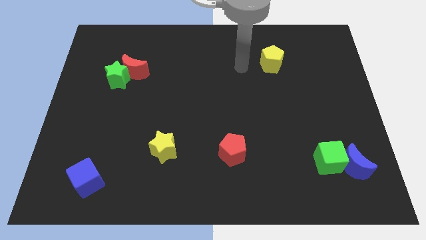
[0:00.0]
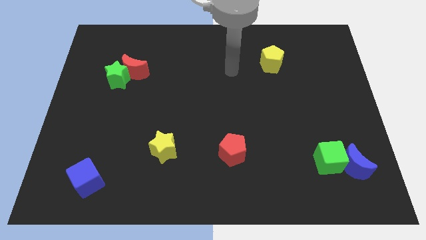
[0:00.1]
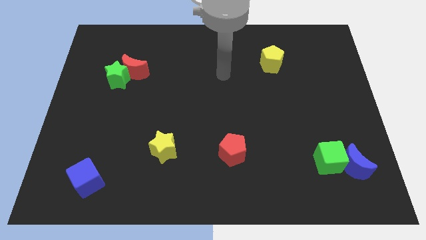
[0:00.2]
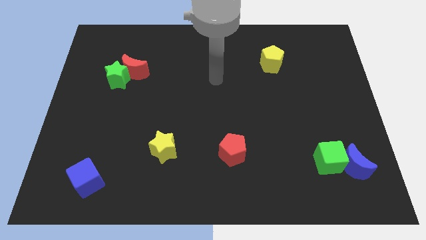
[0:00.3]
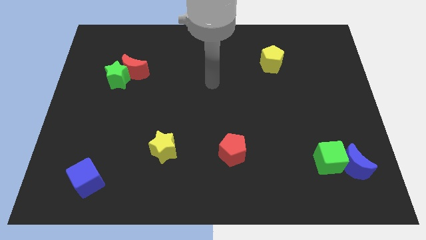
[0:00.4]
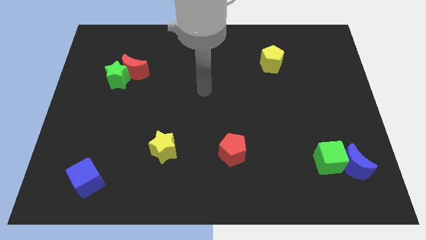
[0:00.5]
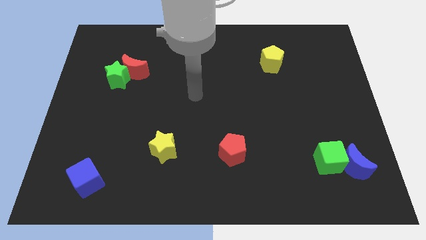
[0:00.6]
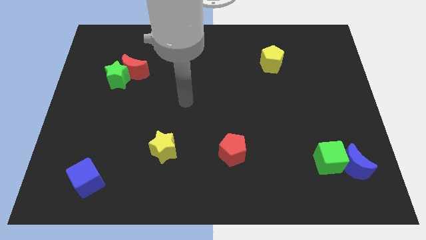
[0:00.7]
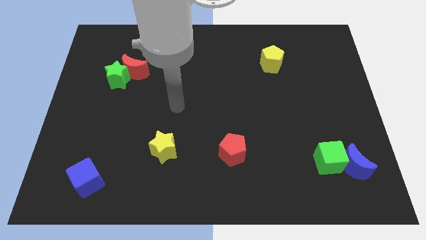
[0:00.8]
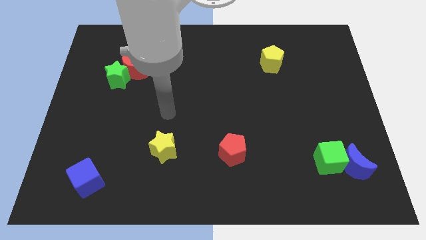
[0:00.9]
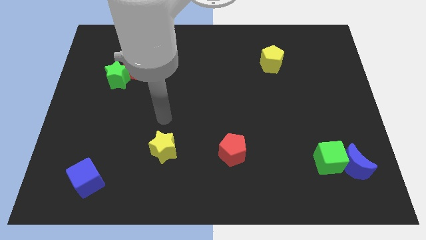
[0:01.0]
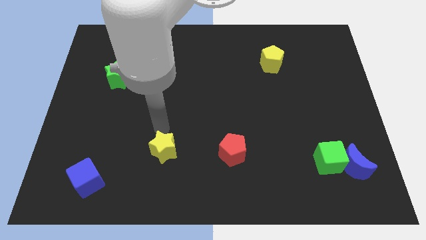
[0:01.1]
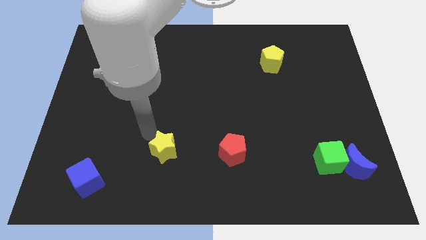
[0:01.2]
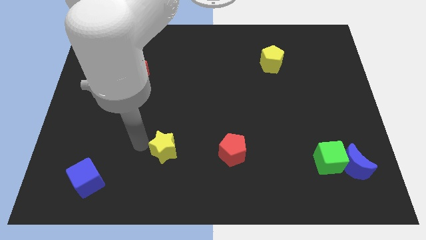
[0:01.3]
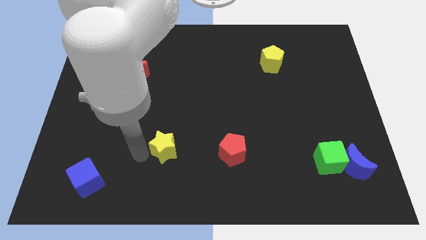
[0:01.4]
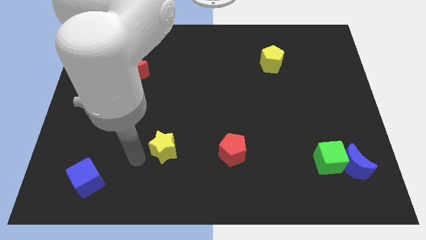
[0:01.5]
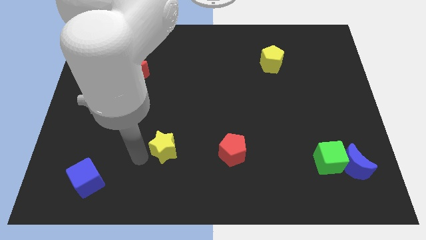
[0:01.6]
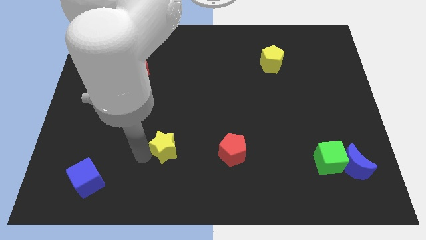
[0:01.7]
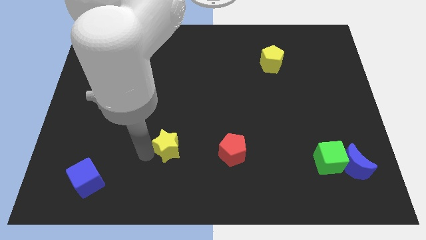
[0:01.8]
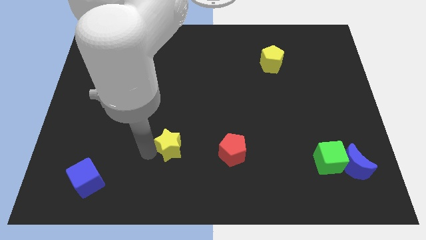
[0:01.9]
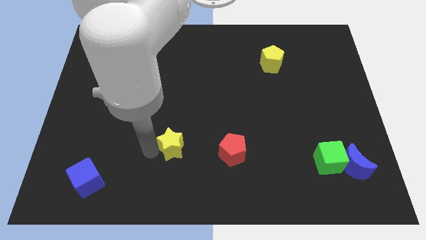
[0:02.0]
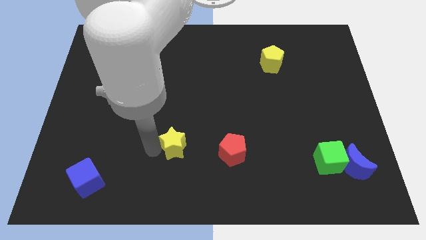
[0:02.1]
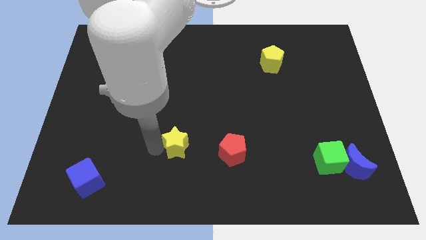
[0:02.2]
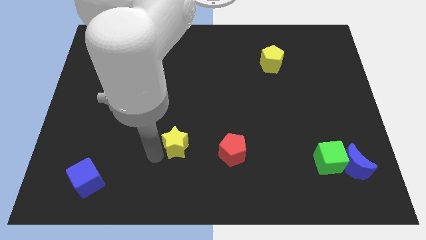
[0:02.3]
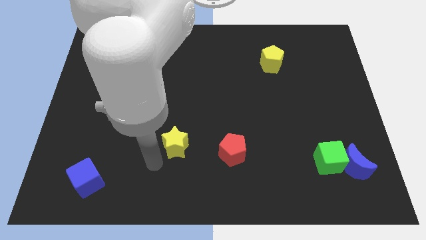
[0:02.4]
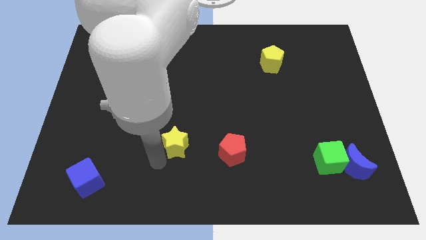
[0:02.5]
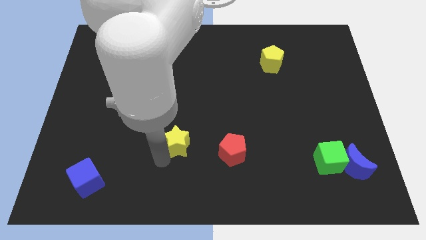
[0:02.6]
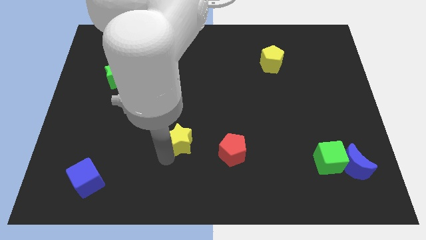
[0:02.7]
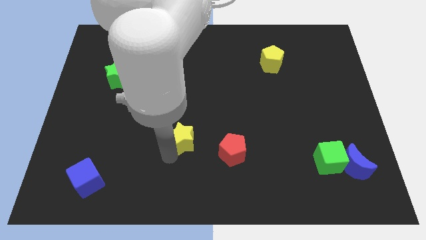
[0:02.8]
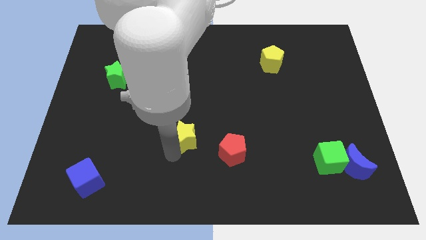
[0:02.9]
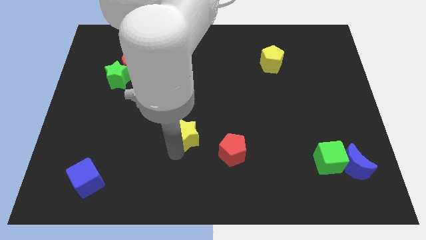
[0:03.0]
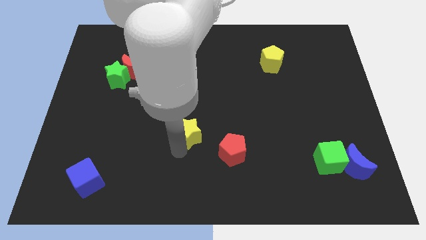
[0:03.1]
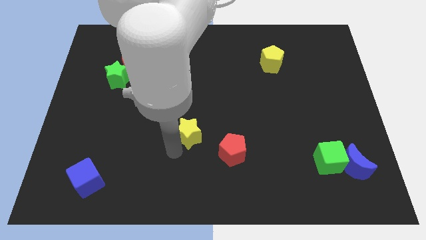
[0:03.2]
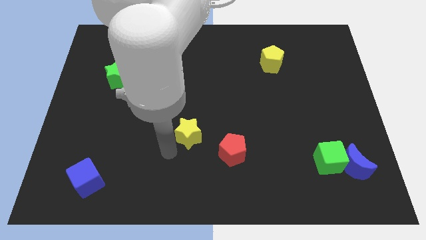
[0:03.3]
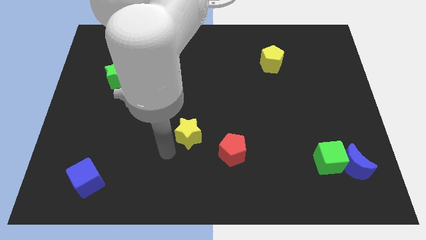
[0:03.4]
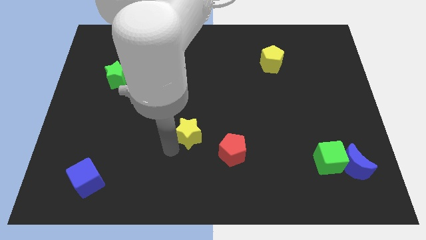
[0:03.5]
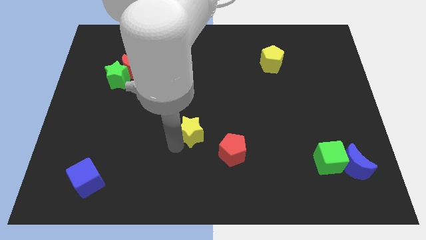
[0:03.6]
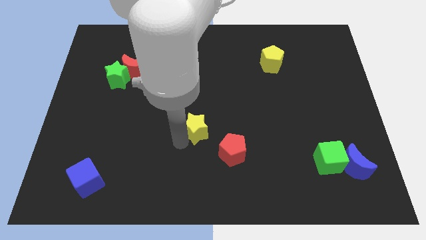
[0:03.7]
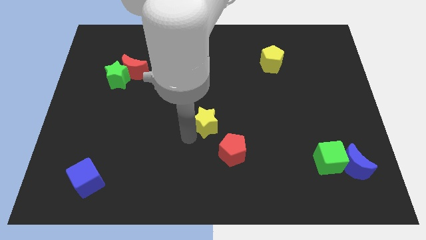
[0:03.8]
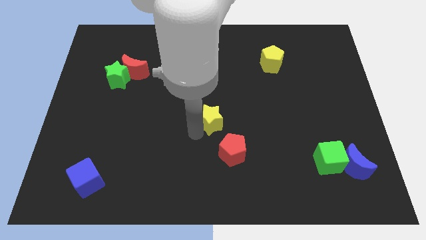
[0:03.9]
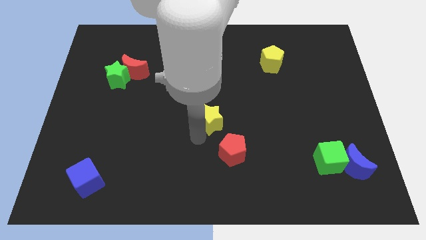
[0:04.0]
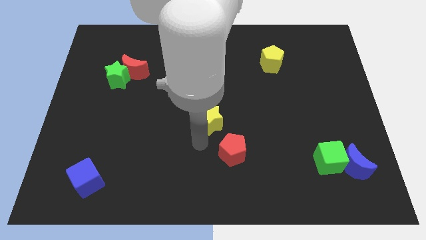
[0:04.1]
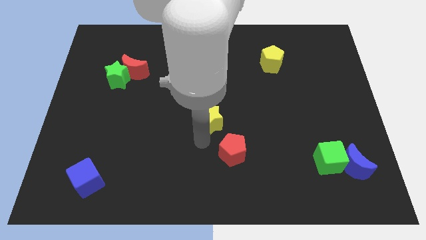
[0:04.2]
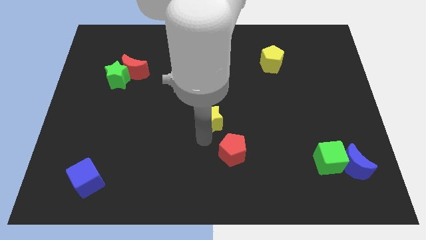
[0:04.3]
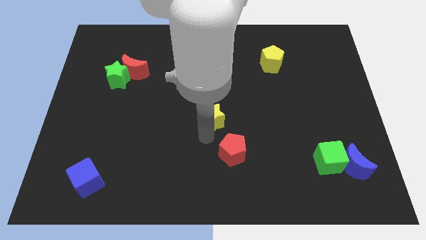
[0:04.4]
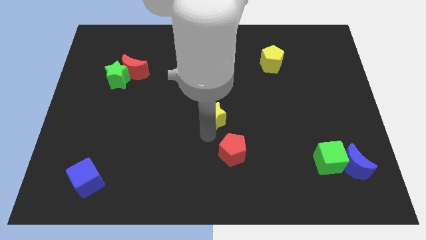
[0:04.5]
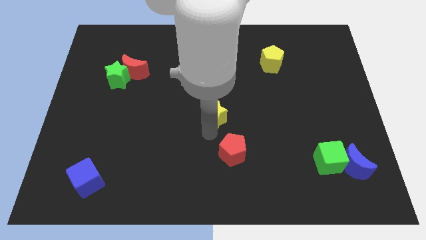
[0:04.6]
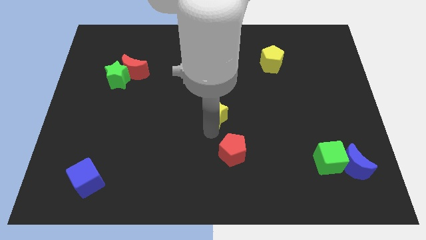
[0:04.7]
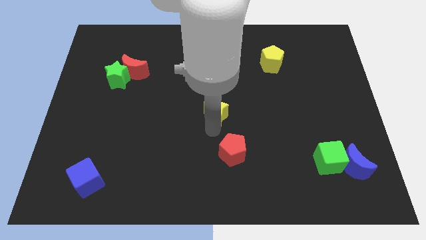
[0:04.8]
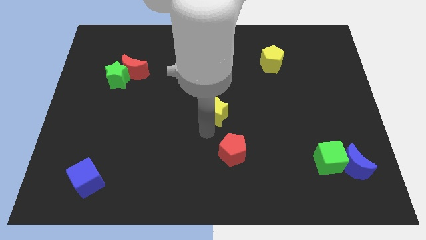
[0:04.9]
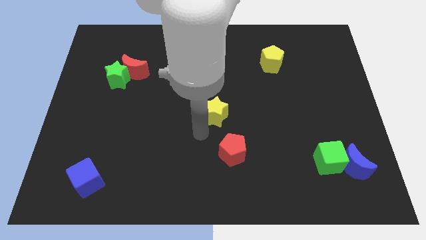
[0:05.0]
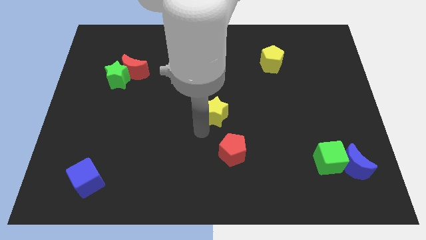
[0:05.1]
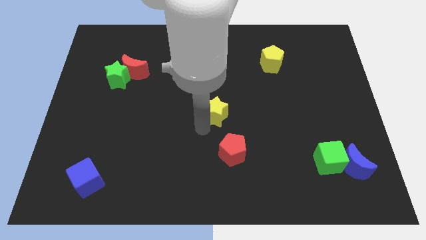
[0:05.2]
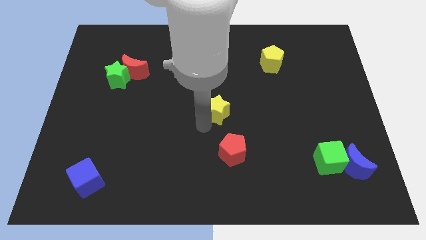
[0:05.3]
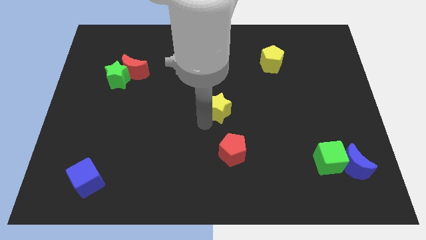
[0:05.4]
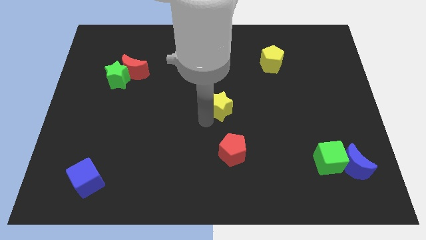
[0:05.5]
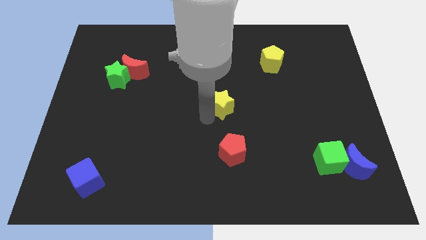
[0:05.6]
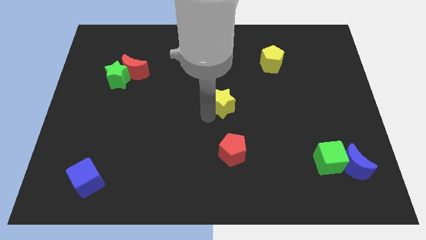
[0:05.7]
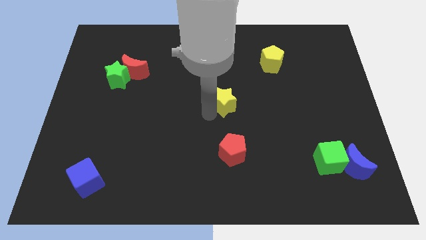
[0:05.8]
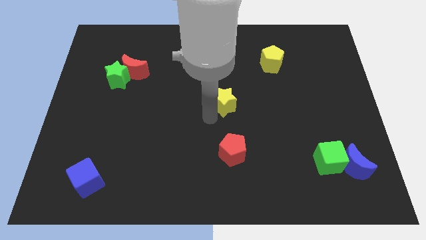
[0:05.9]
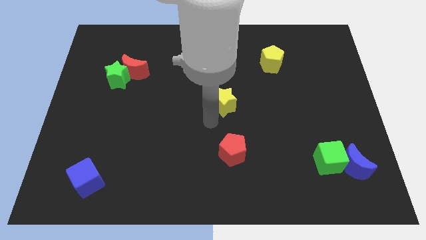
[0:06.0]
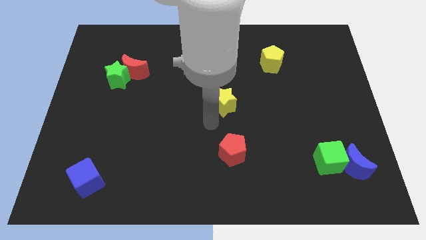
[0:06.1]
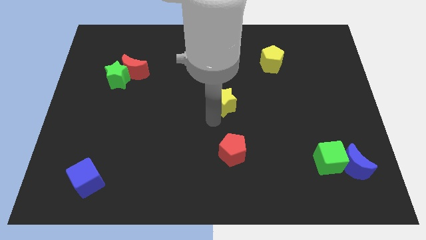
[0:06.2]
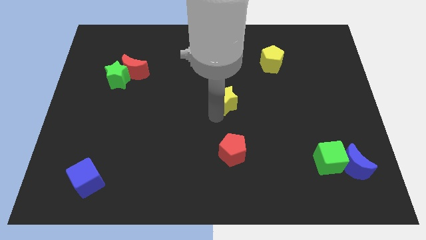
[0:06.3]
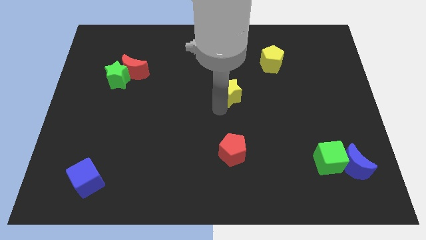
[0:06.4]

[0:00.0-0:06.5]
slide the yellow star upwards and to the right diagonally

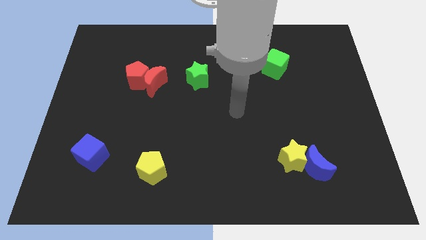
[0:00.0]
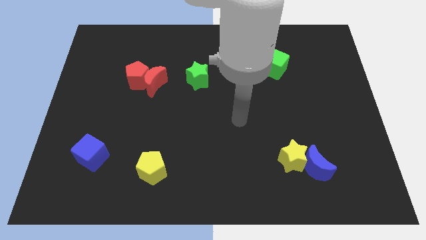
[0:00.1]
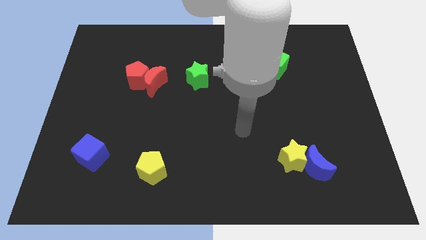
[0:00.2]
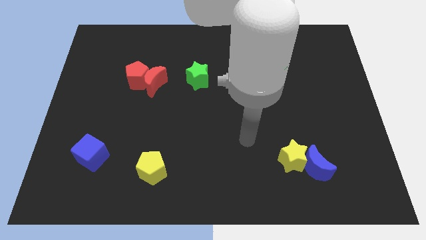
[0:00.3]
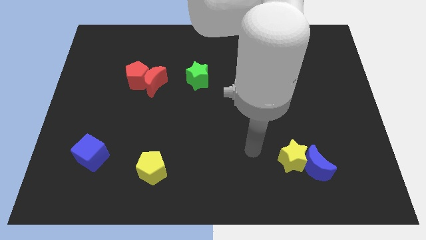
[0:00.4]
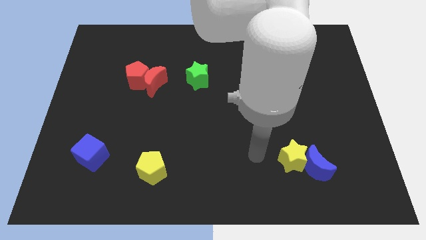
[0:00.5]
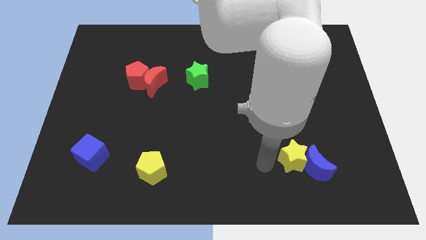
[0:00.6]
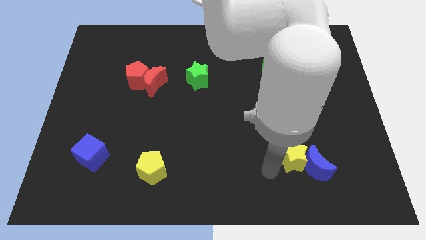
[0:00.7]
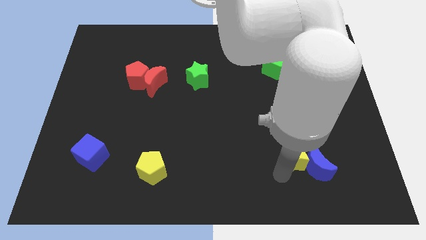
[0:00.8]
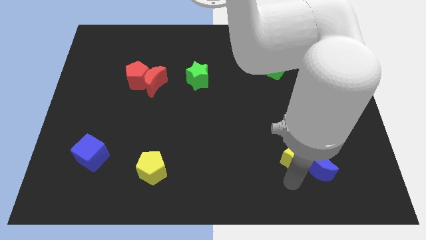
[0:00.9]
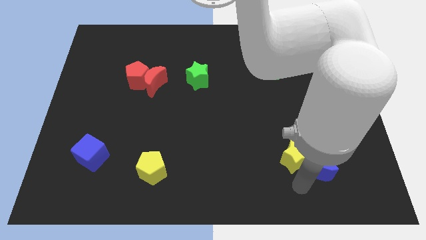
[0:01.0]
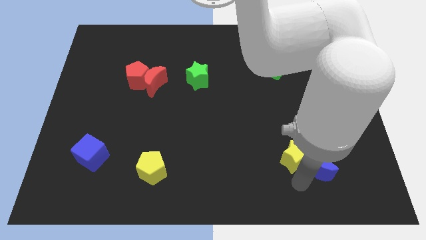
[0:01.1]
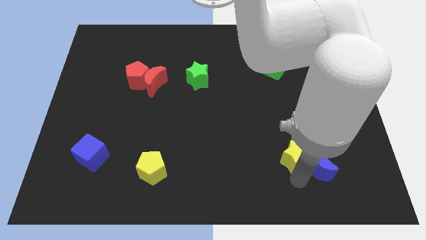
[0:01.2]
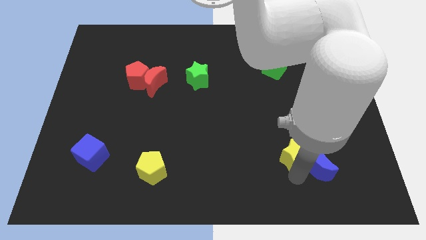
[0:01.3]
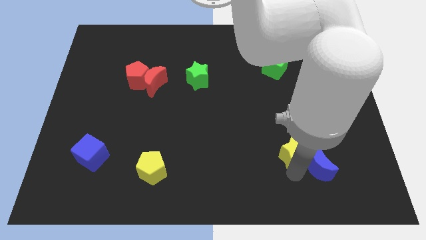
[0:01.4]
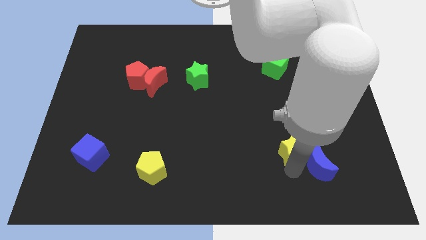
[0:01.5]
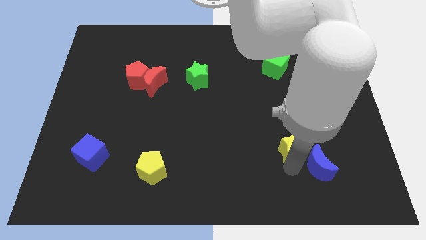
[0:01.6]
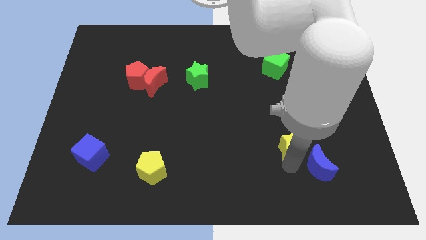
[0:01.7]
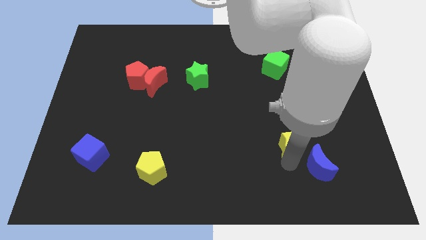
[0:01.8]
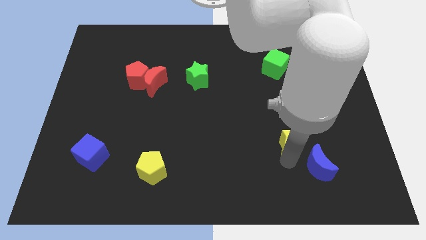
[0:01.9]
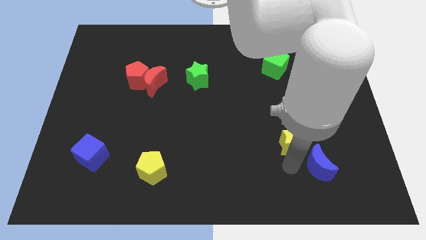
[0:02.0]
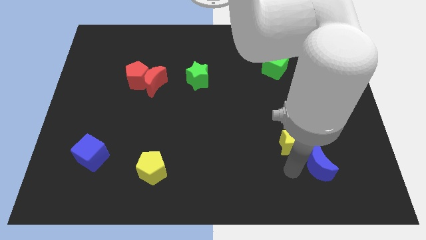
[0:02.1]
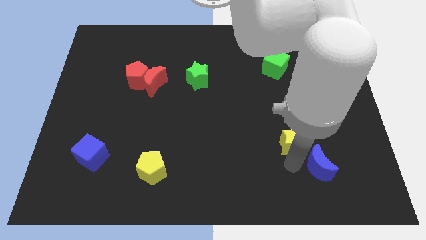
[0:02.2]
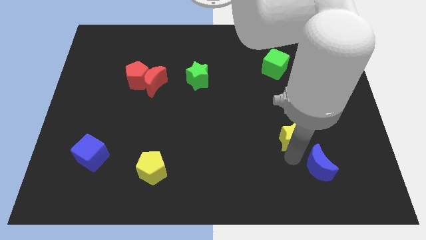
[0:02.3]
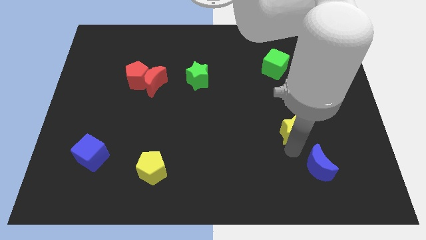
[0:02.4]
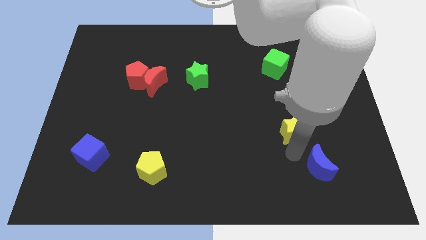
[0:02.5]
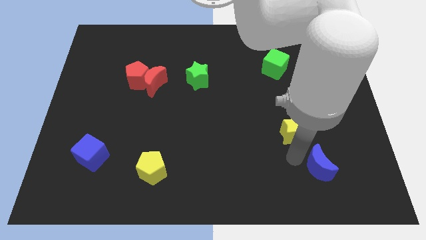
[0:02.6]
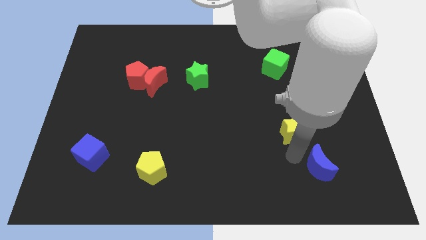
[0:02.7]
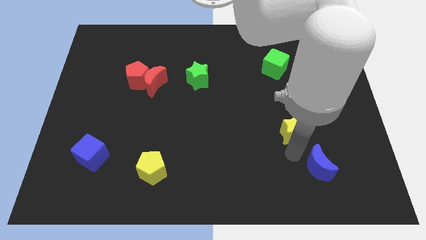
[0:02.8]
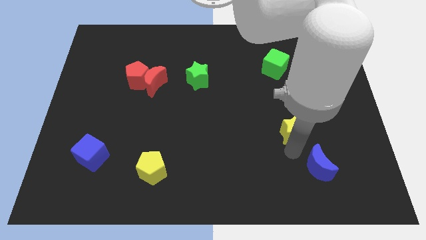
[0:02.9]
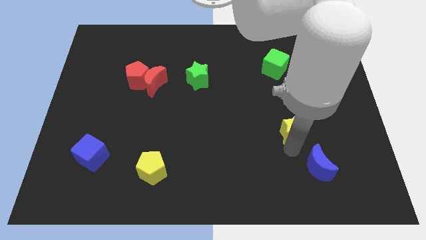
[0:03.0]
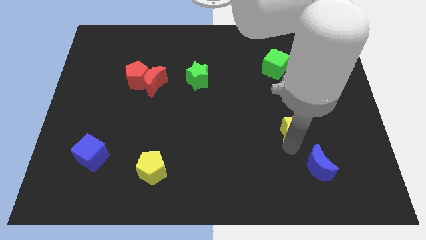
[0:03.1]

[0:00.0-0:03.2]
push the yellow star upwards a bit
